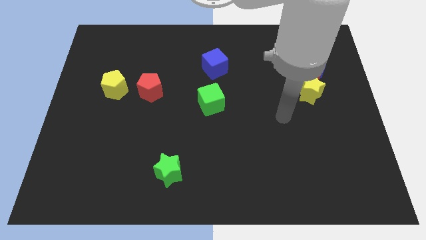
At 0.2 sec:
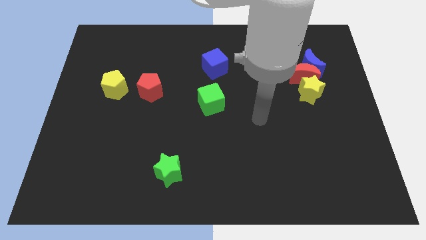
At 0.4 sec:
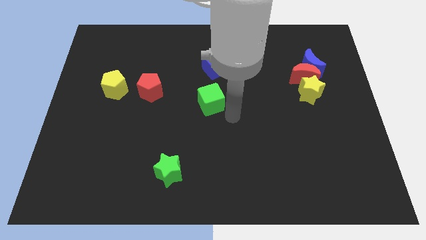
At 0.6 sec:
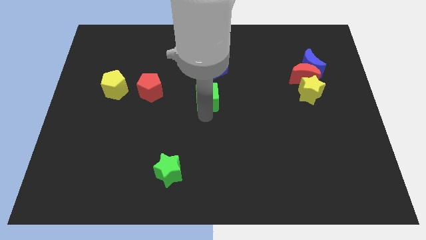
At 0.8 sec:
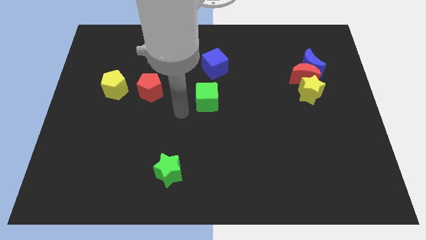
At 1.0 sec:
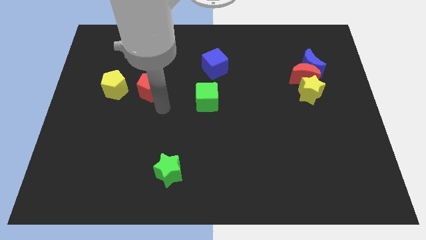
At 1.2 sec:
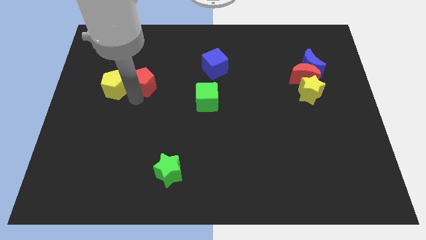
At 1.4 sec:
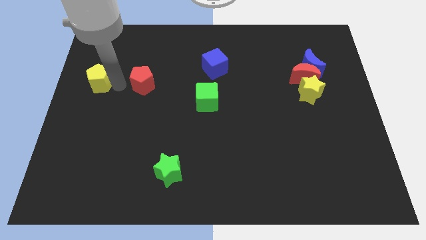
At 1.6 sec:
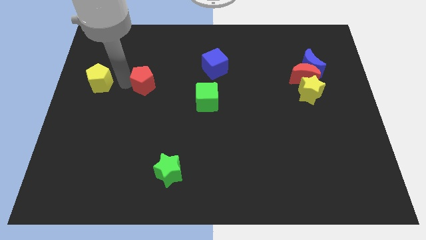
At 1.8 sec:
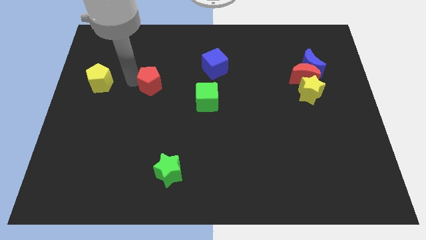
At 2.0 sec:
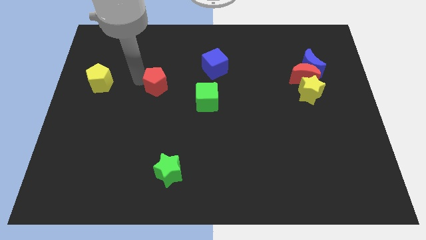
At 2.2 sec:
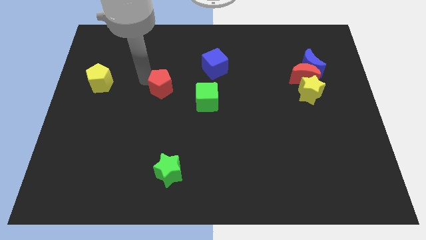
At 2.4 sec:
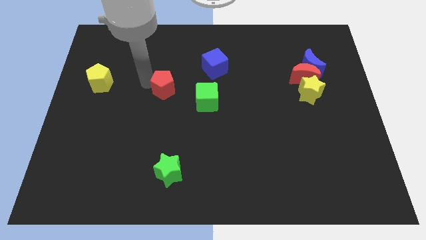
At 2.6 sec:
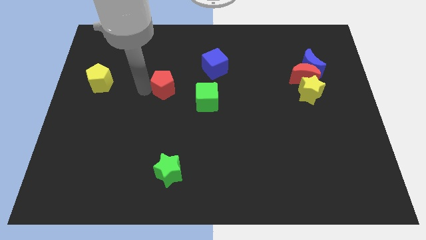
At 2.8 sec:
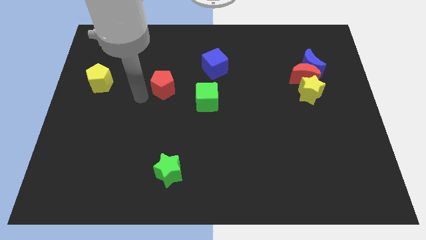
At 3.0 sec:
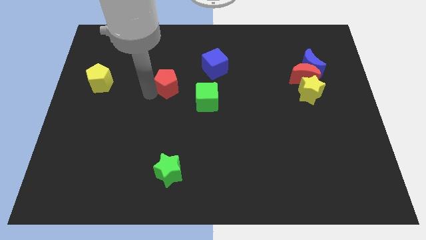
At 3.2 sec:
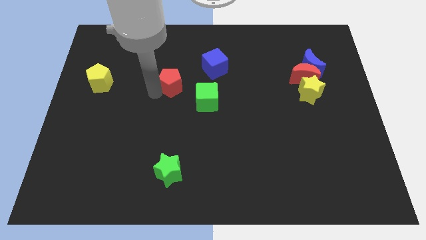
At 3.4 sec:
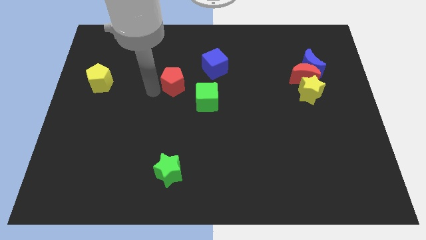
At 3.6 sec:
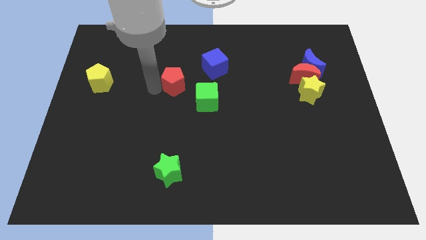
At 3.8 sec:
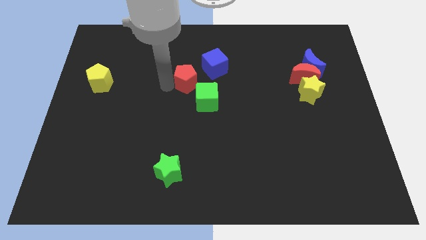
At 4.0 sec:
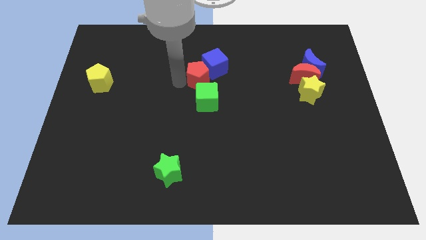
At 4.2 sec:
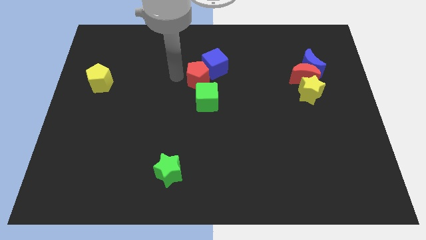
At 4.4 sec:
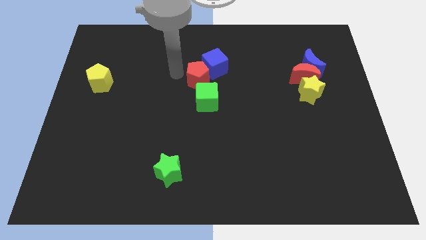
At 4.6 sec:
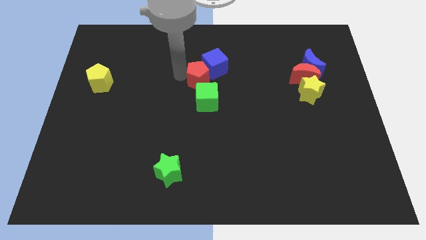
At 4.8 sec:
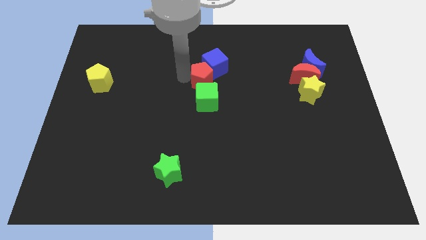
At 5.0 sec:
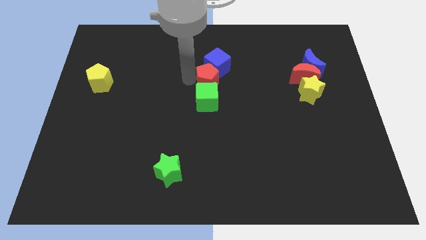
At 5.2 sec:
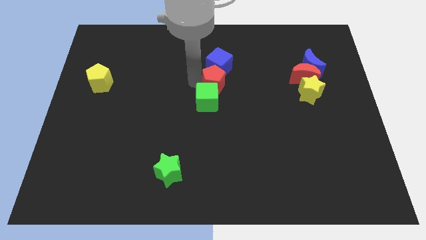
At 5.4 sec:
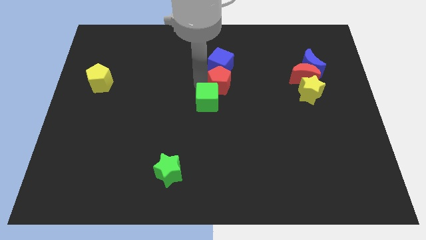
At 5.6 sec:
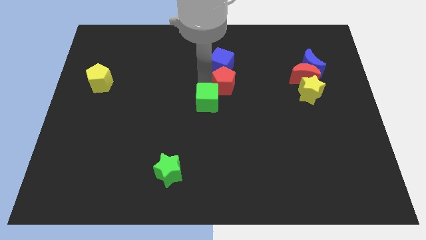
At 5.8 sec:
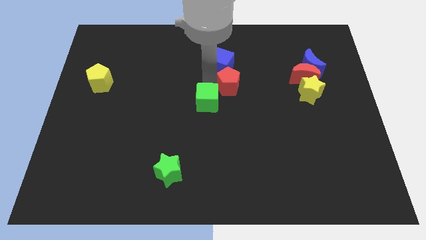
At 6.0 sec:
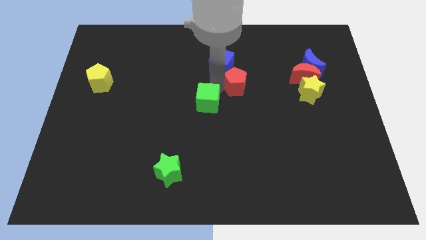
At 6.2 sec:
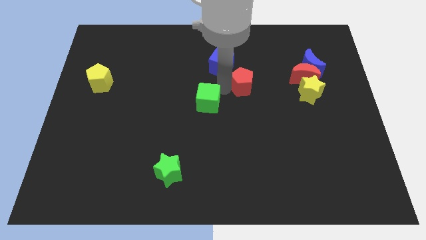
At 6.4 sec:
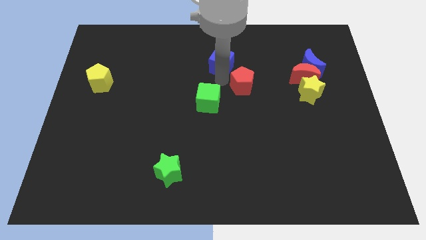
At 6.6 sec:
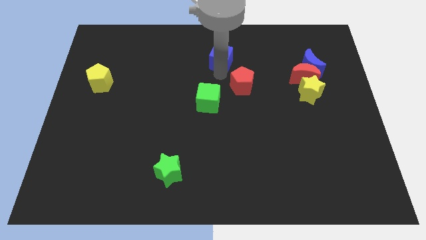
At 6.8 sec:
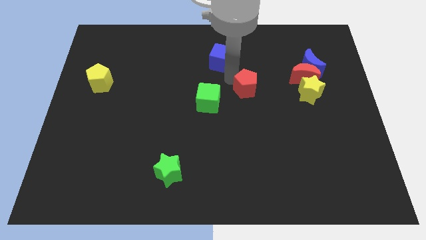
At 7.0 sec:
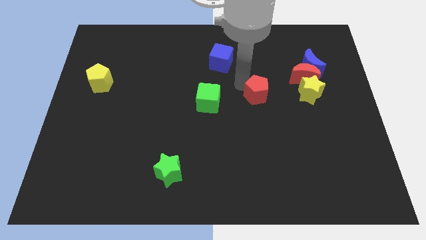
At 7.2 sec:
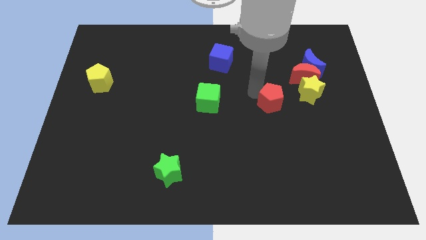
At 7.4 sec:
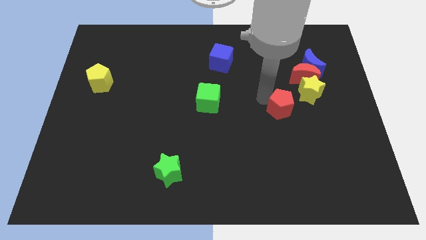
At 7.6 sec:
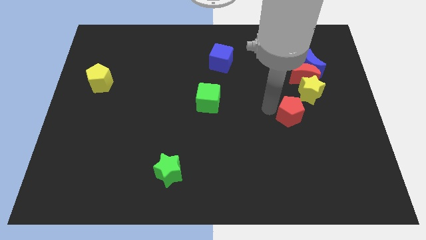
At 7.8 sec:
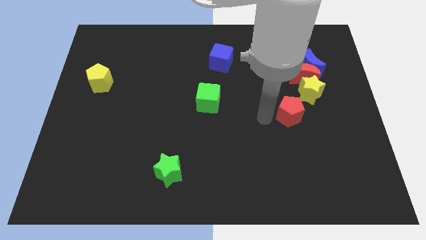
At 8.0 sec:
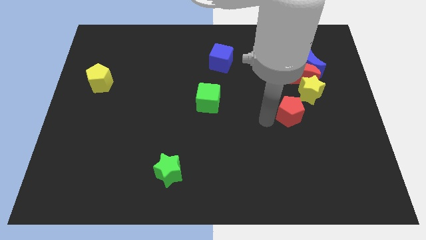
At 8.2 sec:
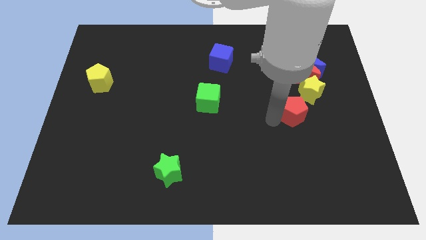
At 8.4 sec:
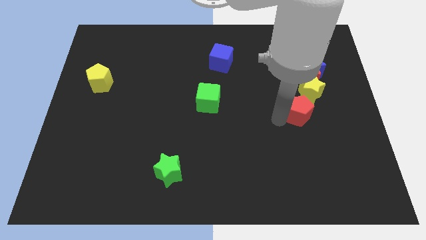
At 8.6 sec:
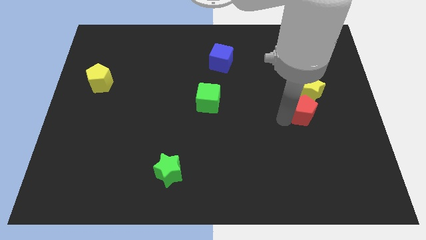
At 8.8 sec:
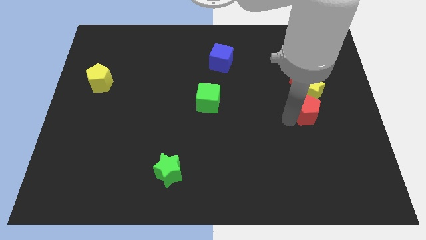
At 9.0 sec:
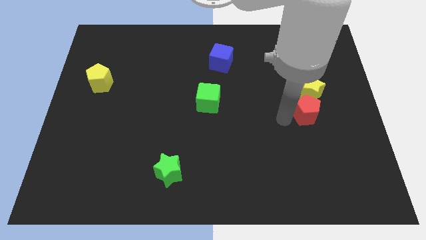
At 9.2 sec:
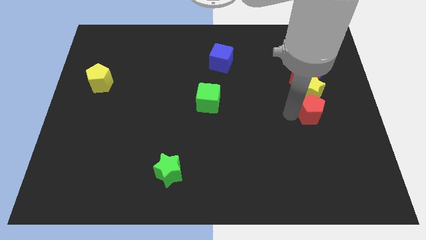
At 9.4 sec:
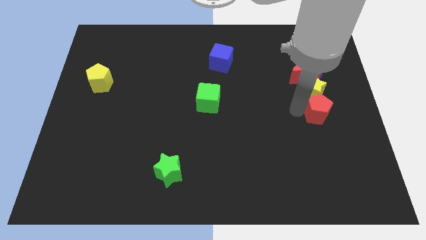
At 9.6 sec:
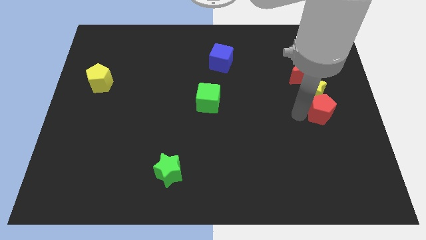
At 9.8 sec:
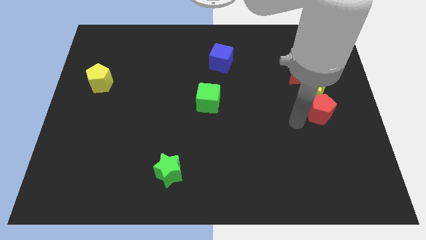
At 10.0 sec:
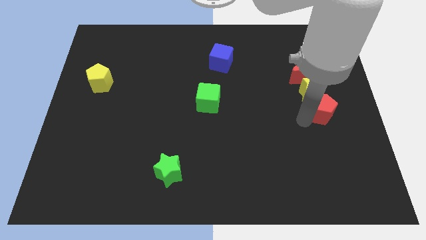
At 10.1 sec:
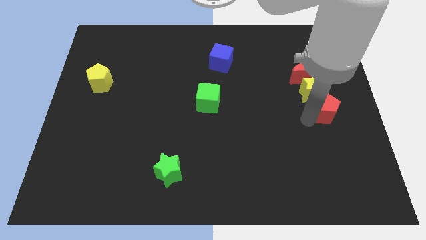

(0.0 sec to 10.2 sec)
push the red pentagon to the center right

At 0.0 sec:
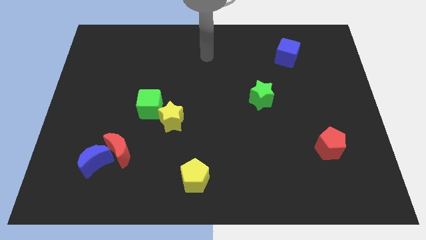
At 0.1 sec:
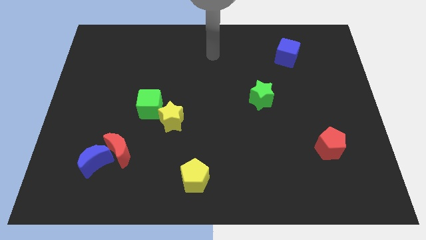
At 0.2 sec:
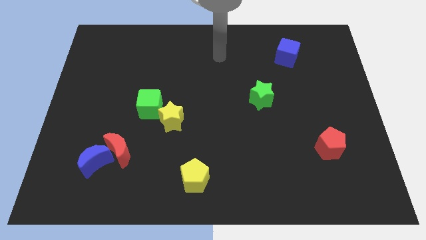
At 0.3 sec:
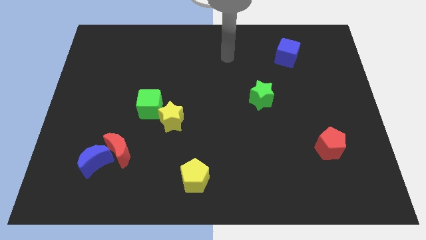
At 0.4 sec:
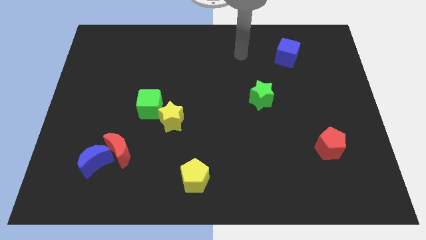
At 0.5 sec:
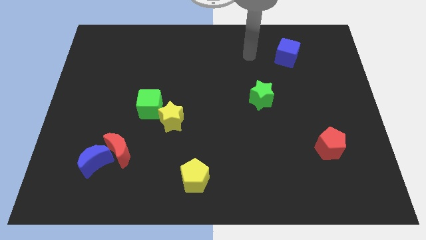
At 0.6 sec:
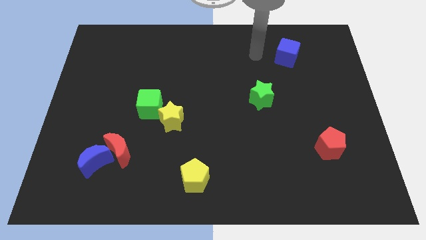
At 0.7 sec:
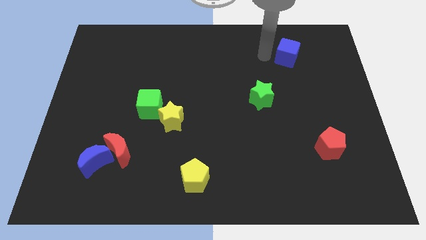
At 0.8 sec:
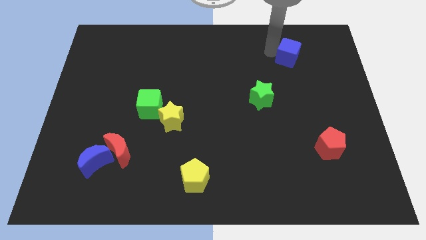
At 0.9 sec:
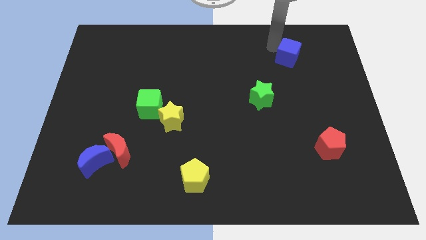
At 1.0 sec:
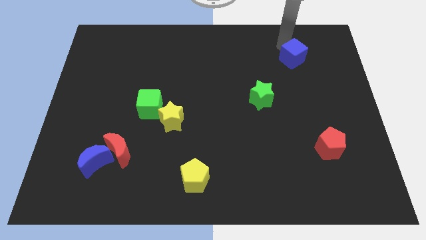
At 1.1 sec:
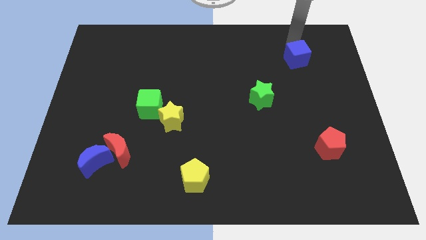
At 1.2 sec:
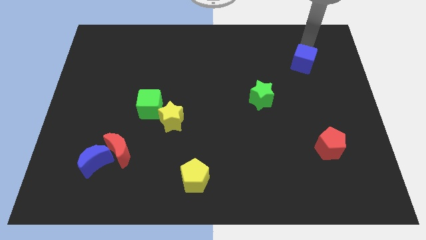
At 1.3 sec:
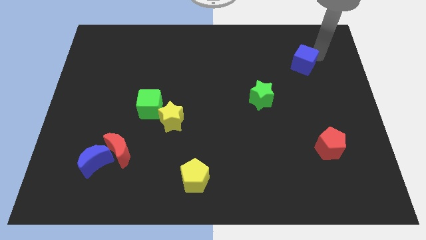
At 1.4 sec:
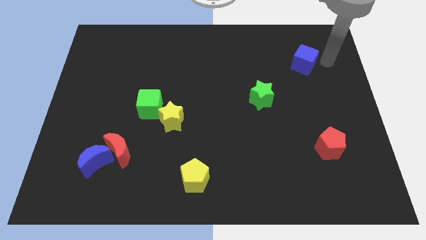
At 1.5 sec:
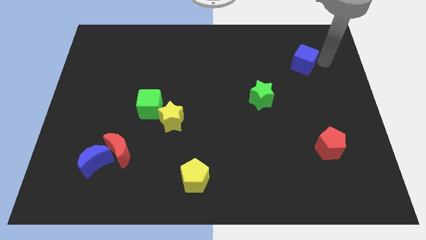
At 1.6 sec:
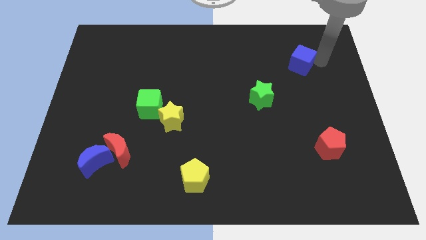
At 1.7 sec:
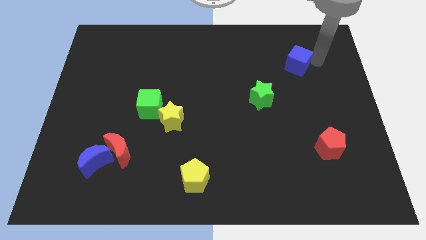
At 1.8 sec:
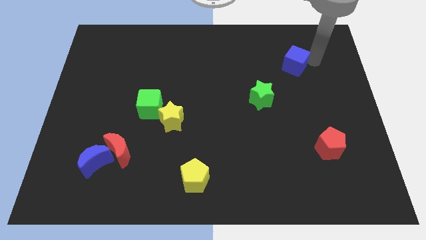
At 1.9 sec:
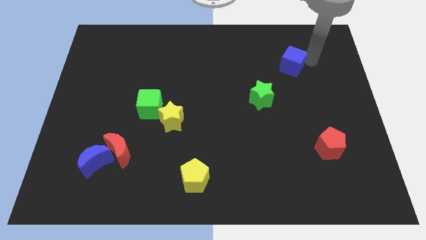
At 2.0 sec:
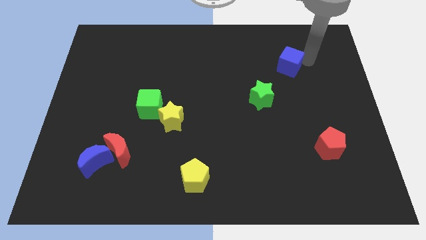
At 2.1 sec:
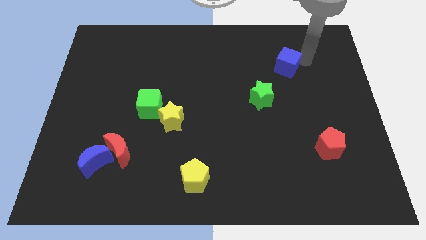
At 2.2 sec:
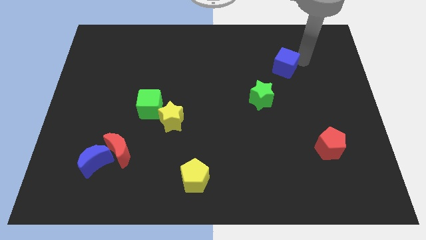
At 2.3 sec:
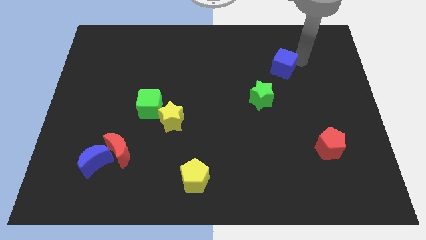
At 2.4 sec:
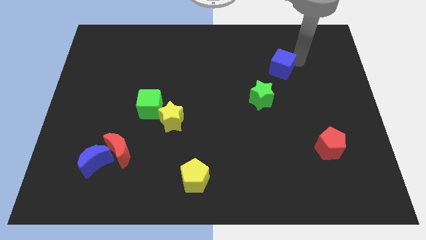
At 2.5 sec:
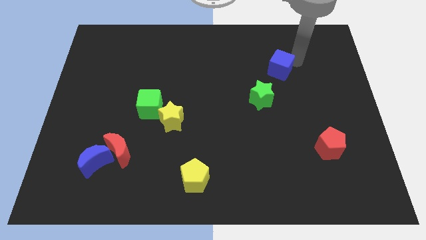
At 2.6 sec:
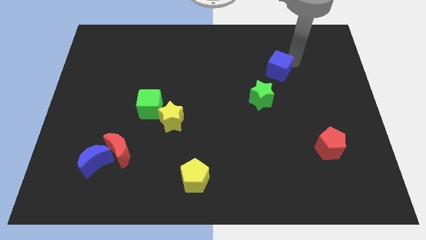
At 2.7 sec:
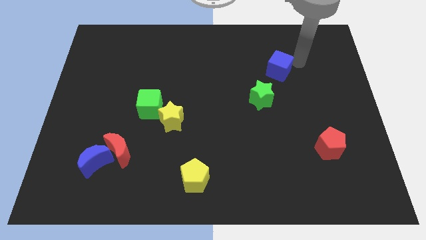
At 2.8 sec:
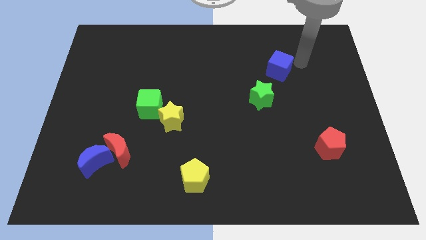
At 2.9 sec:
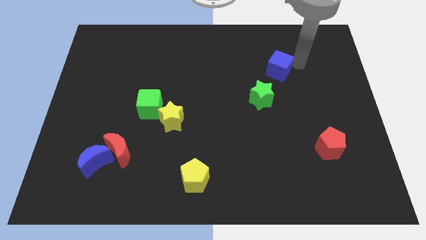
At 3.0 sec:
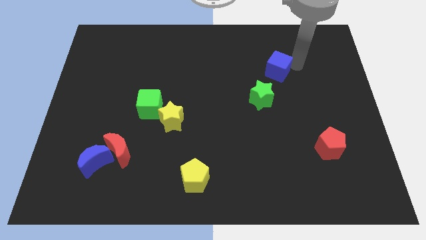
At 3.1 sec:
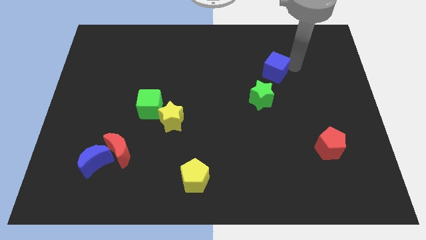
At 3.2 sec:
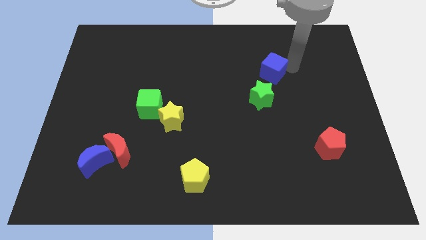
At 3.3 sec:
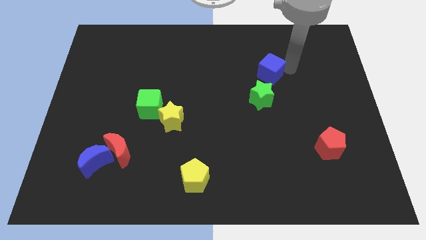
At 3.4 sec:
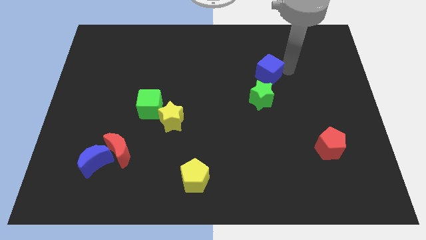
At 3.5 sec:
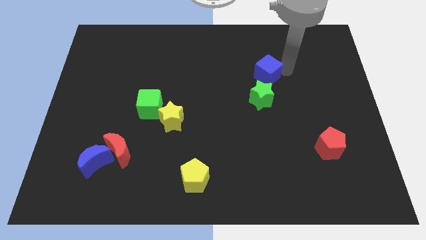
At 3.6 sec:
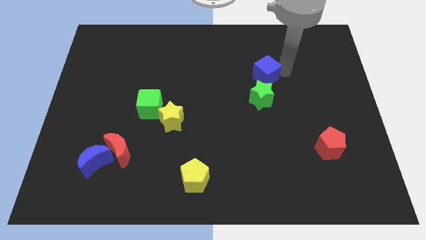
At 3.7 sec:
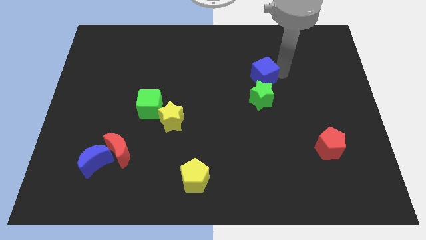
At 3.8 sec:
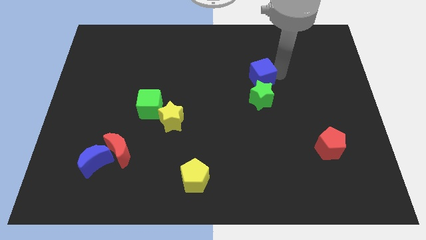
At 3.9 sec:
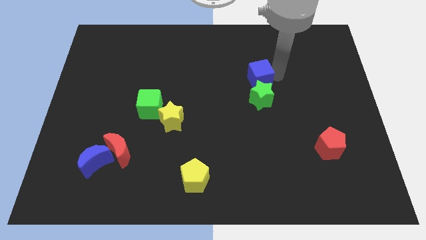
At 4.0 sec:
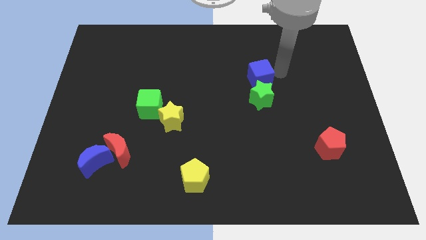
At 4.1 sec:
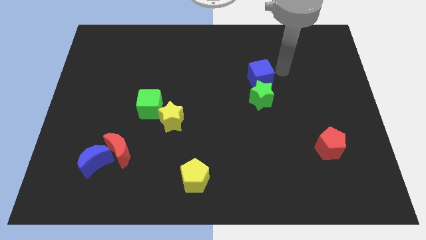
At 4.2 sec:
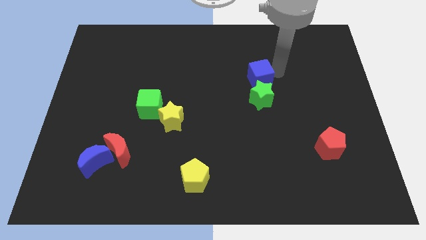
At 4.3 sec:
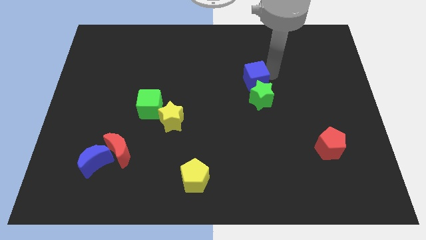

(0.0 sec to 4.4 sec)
push the blue cube to the middle
